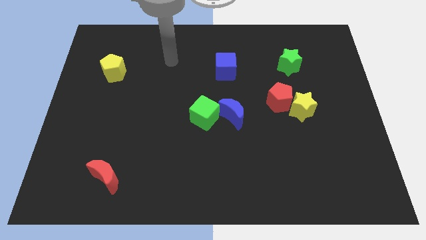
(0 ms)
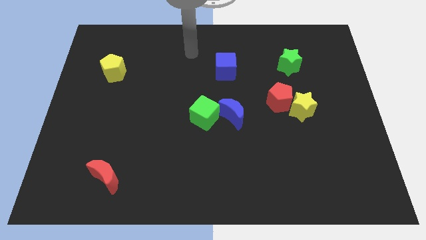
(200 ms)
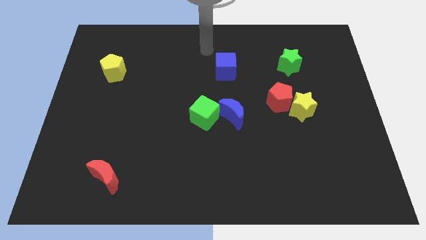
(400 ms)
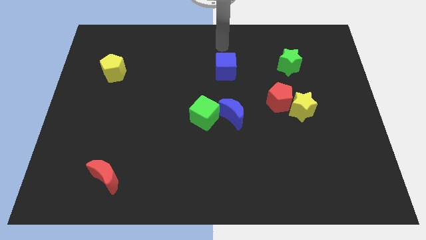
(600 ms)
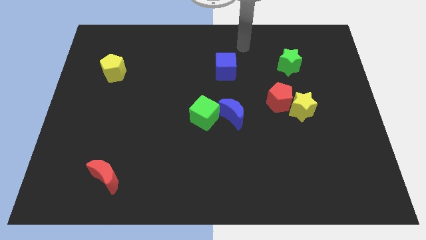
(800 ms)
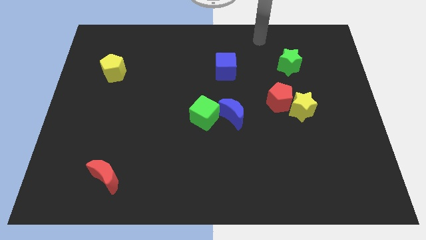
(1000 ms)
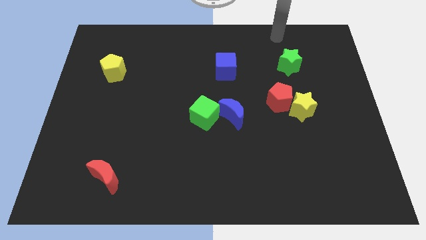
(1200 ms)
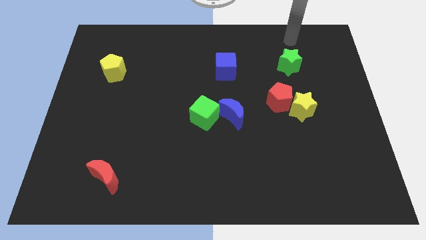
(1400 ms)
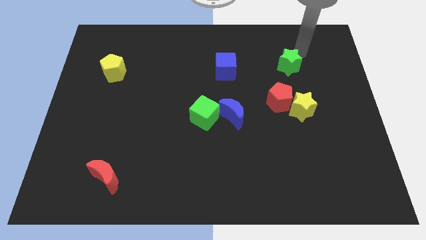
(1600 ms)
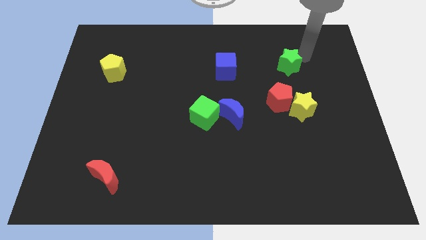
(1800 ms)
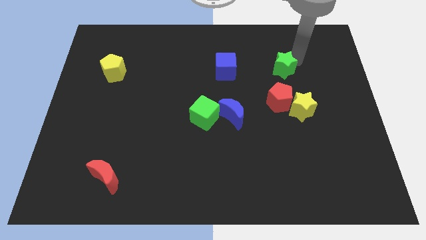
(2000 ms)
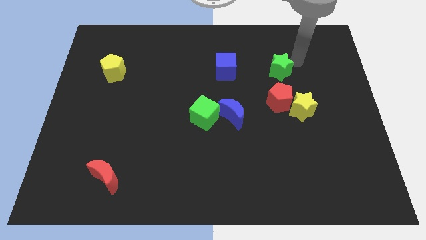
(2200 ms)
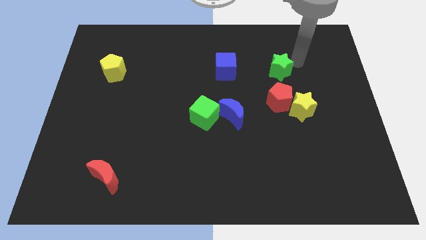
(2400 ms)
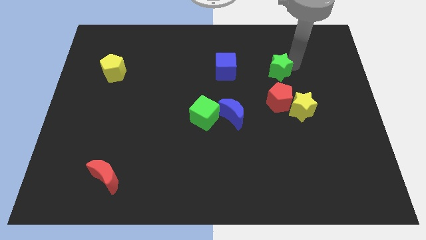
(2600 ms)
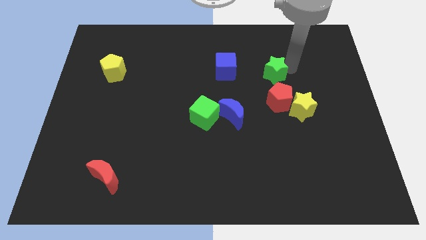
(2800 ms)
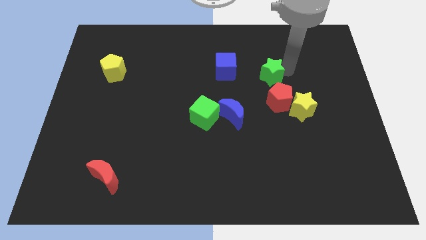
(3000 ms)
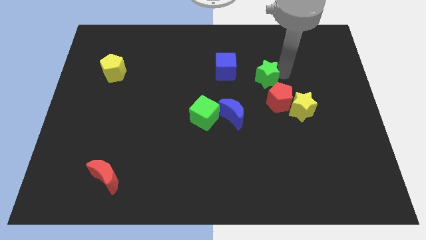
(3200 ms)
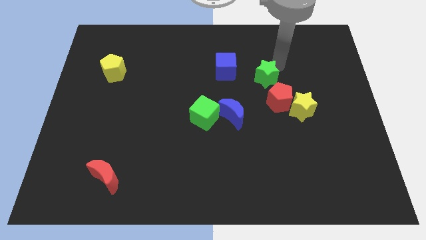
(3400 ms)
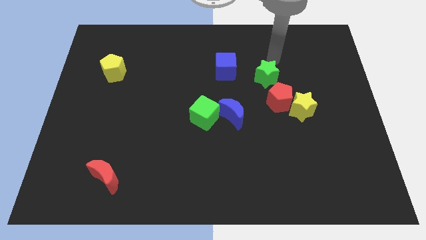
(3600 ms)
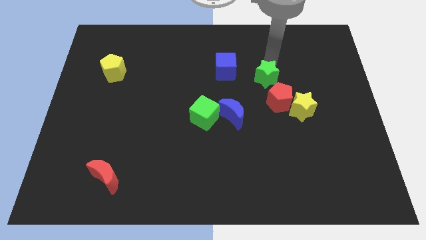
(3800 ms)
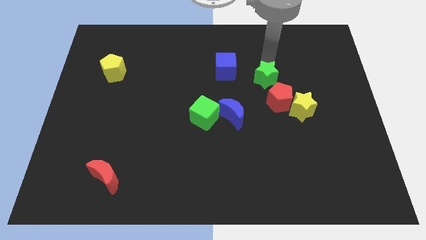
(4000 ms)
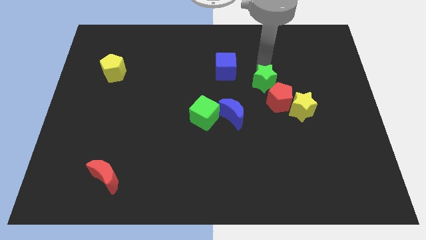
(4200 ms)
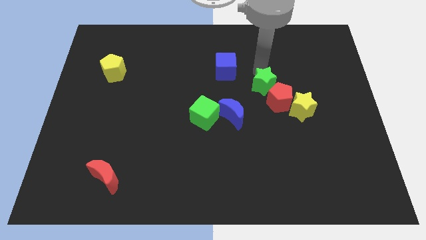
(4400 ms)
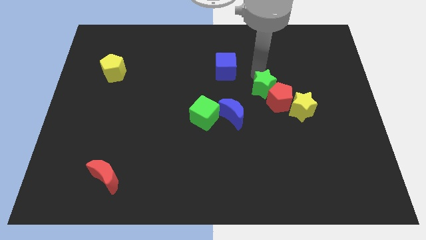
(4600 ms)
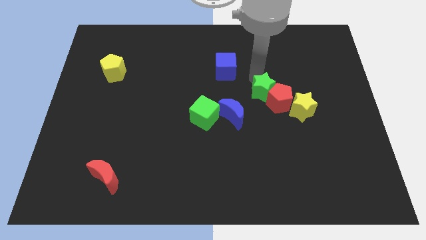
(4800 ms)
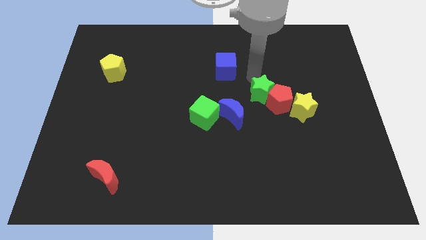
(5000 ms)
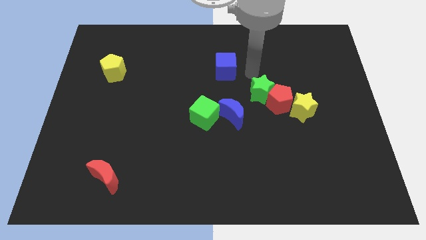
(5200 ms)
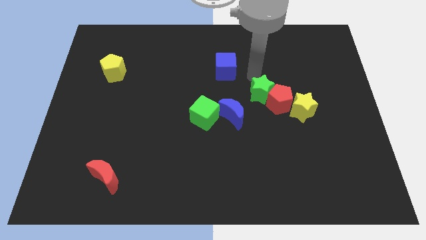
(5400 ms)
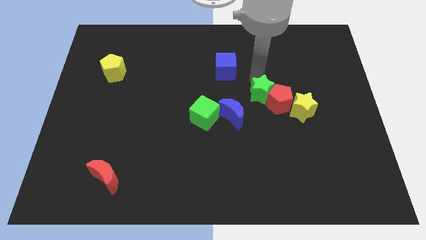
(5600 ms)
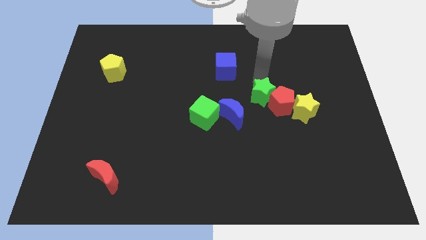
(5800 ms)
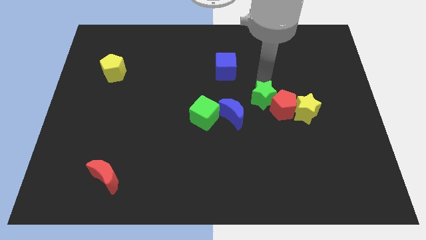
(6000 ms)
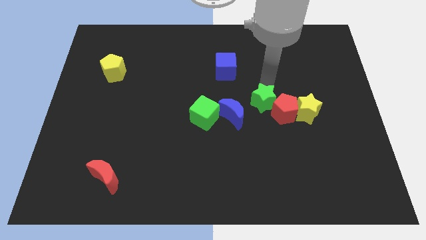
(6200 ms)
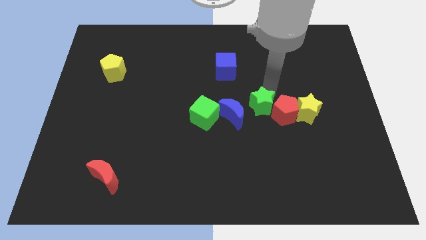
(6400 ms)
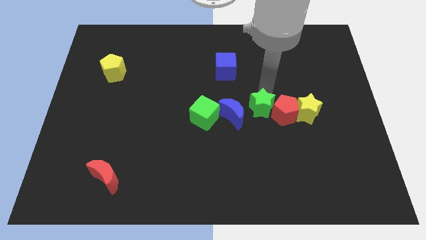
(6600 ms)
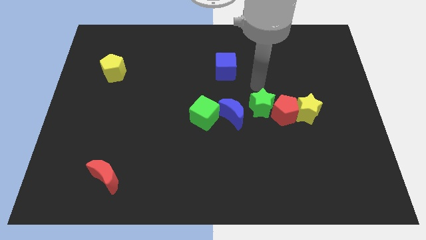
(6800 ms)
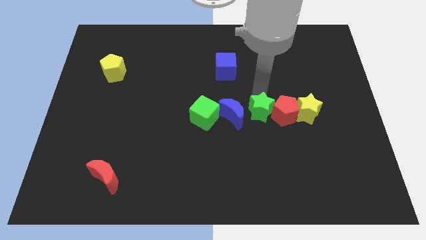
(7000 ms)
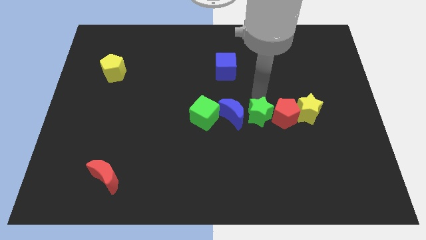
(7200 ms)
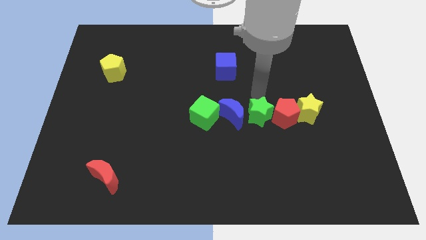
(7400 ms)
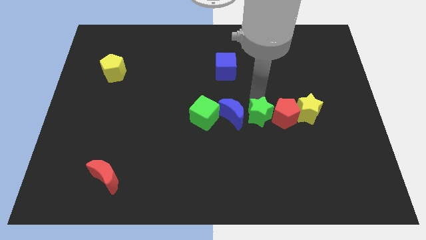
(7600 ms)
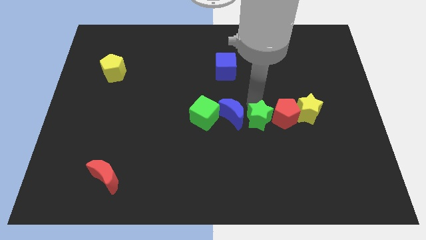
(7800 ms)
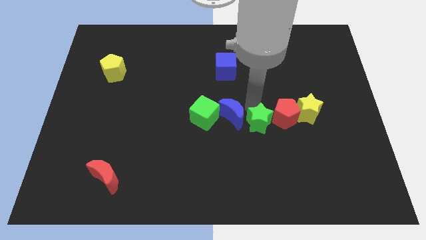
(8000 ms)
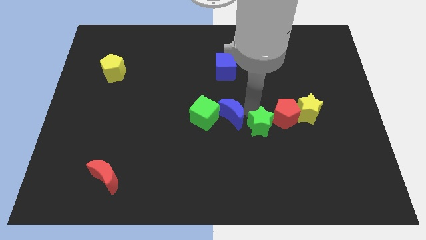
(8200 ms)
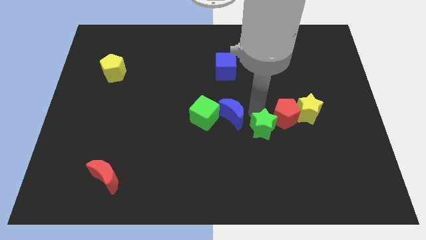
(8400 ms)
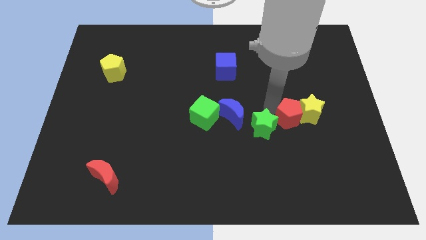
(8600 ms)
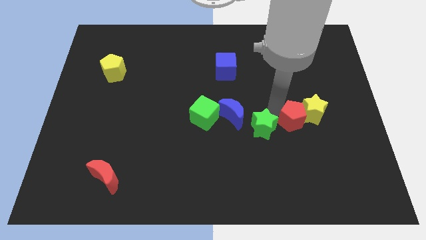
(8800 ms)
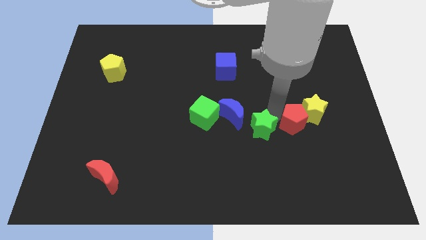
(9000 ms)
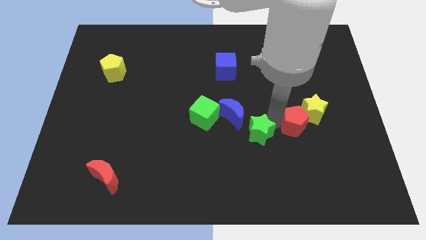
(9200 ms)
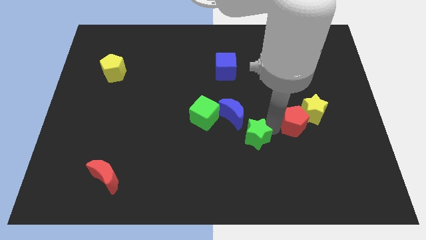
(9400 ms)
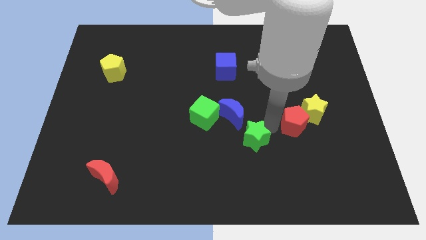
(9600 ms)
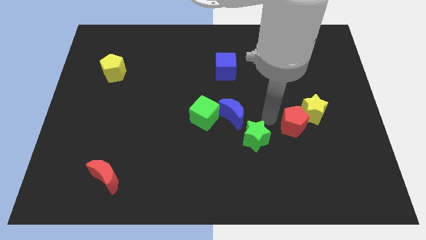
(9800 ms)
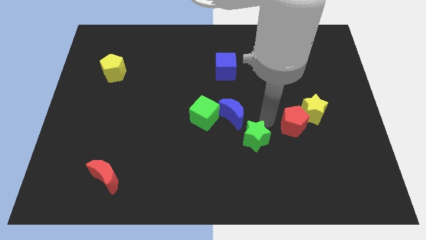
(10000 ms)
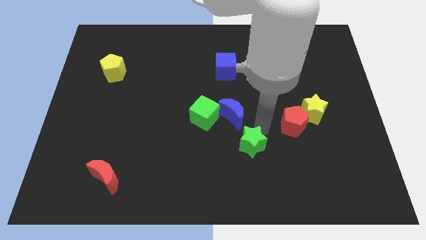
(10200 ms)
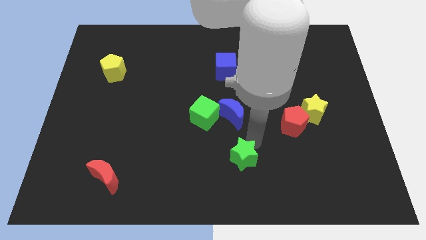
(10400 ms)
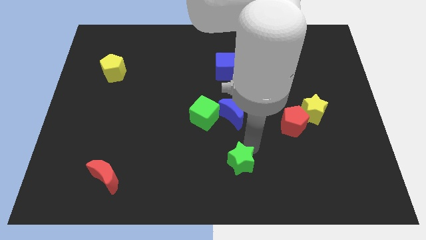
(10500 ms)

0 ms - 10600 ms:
put the green star to the bottom side

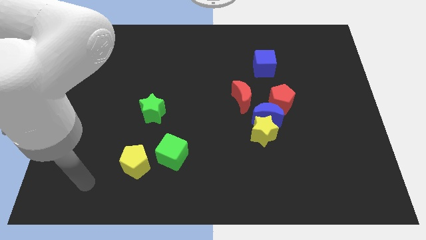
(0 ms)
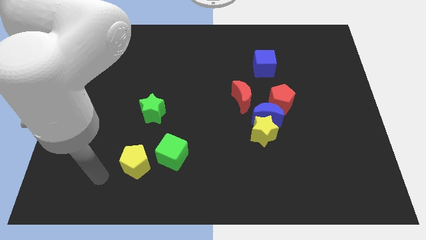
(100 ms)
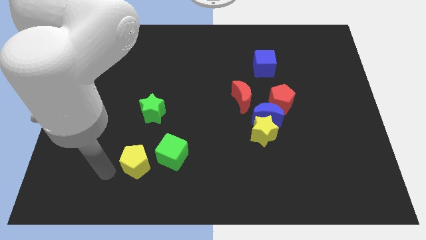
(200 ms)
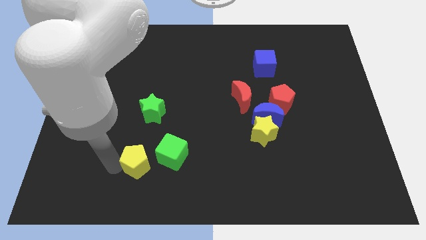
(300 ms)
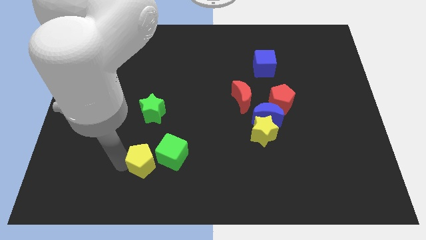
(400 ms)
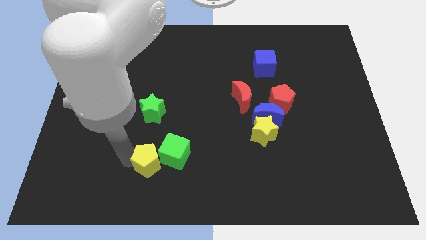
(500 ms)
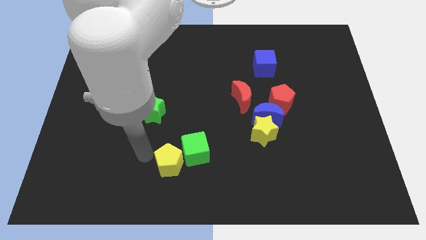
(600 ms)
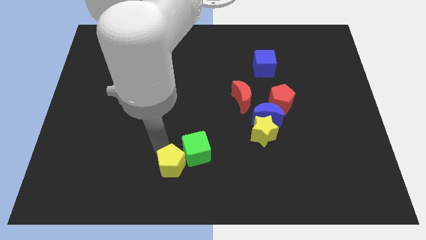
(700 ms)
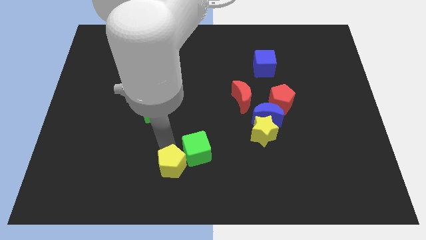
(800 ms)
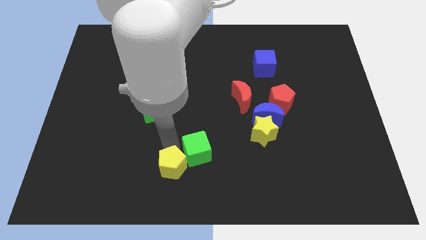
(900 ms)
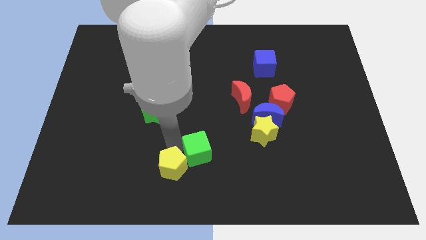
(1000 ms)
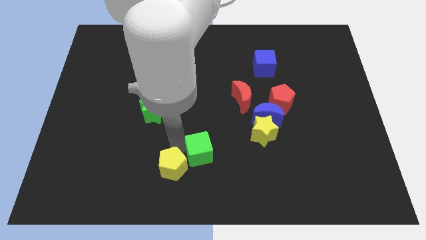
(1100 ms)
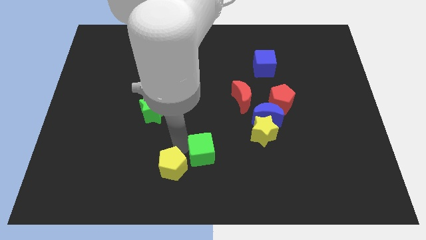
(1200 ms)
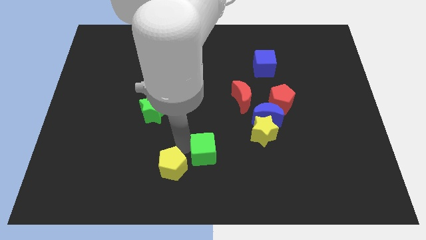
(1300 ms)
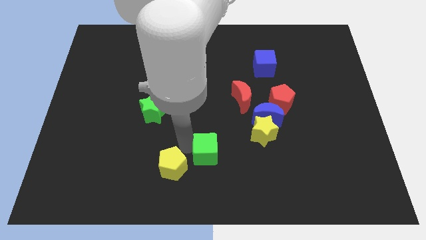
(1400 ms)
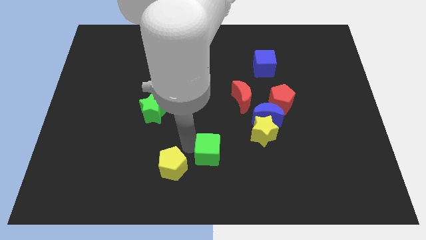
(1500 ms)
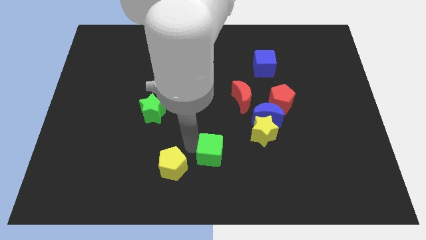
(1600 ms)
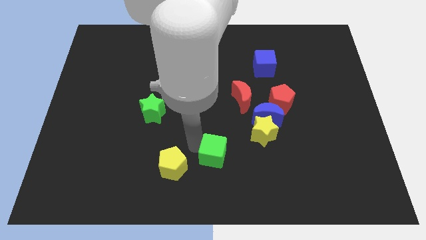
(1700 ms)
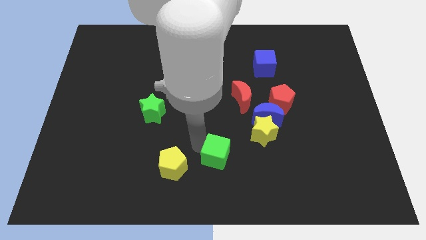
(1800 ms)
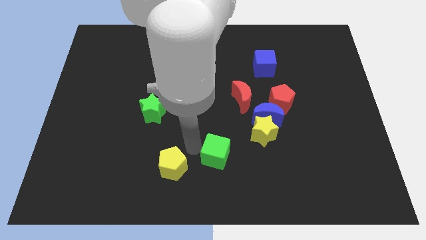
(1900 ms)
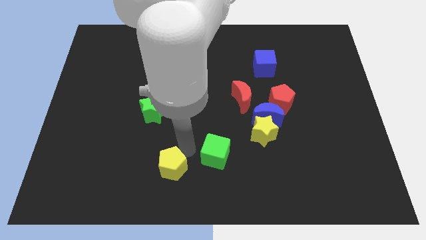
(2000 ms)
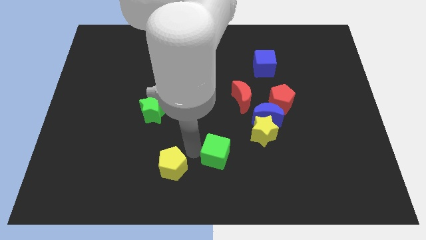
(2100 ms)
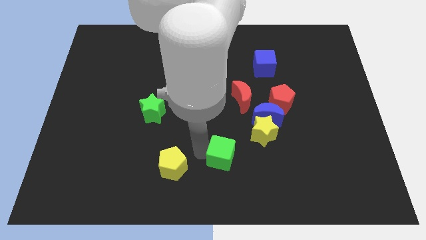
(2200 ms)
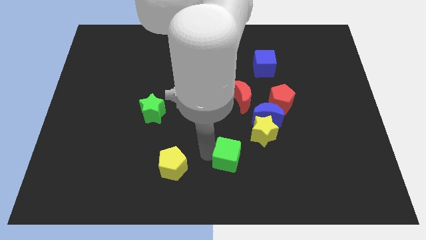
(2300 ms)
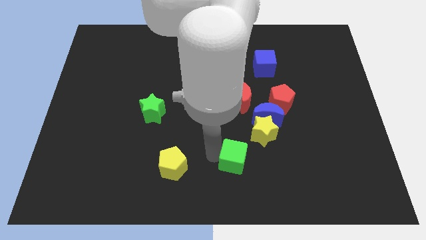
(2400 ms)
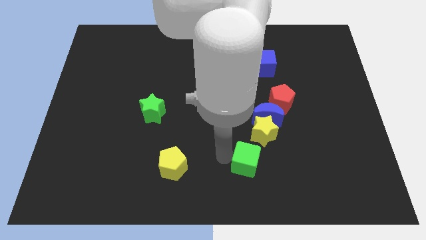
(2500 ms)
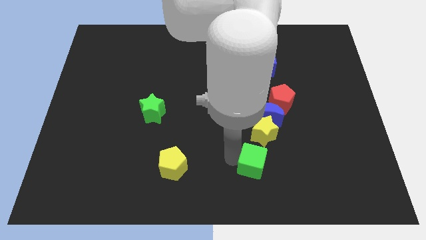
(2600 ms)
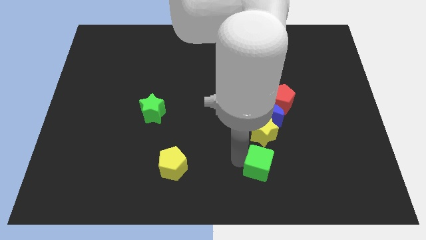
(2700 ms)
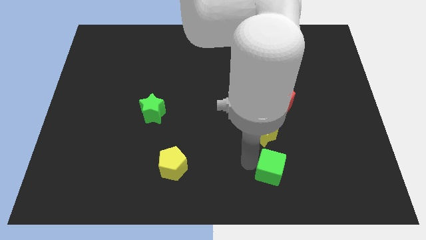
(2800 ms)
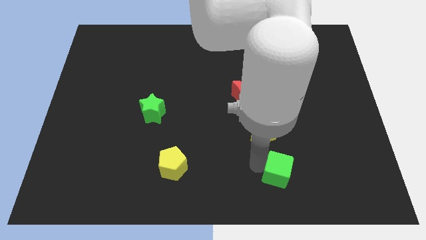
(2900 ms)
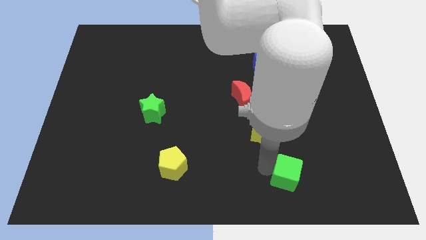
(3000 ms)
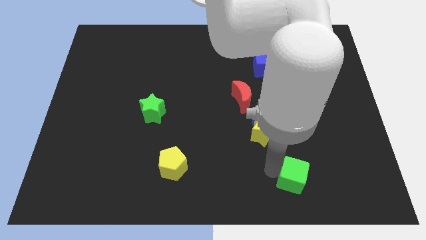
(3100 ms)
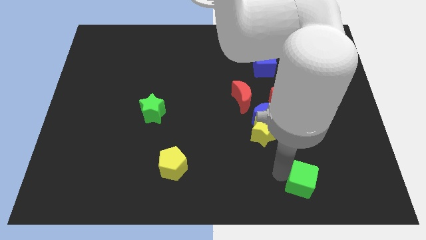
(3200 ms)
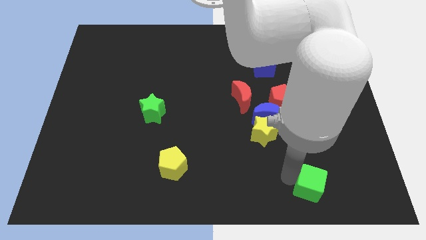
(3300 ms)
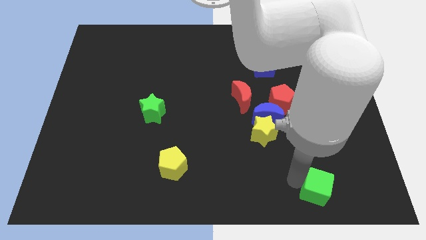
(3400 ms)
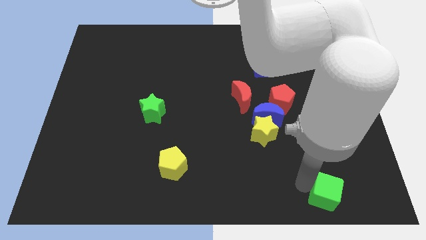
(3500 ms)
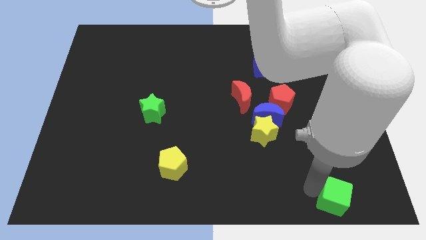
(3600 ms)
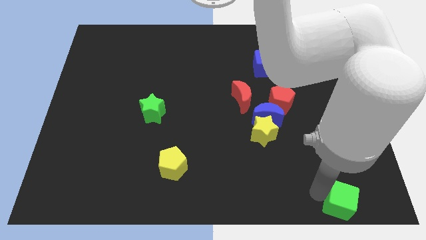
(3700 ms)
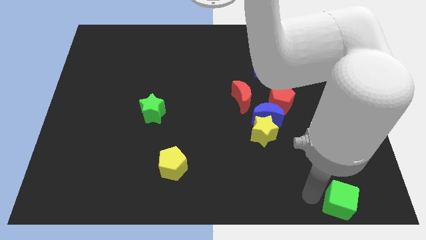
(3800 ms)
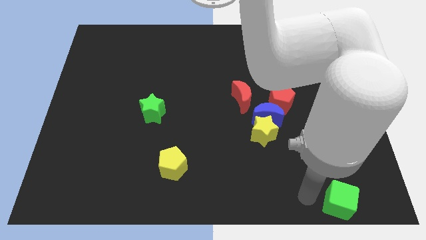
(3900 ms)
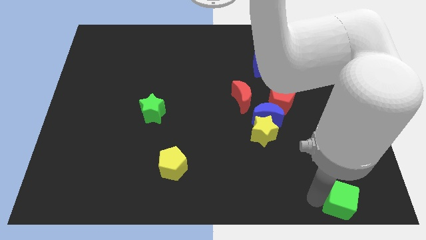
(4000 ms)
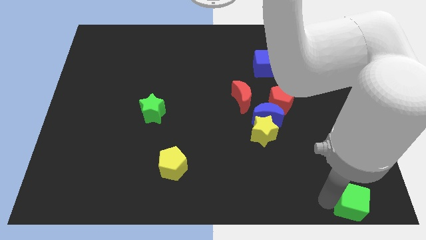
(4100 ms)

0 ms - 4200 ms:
move the green cube to the bottom right
